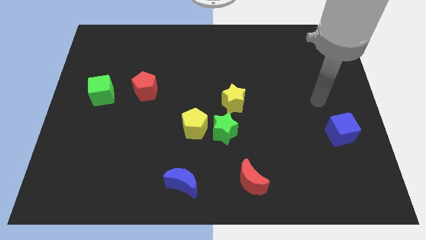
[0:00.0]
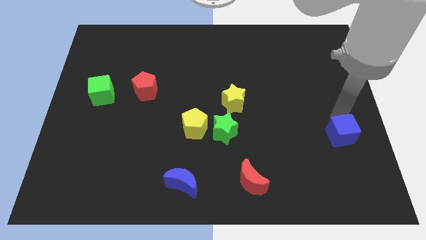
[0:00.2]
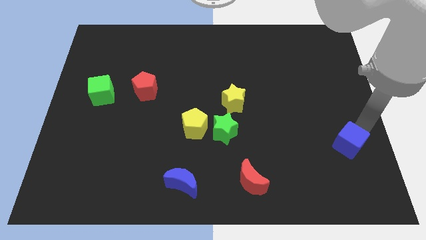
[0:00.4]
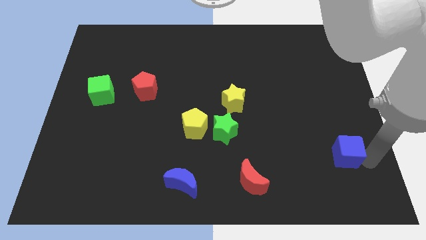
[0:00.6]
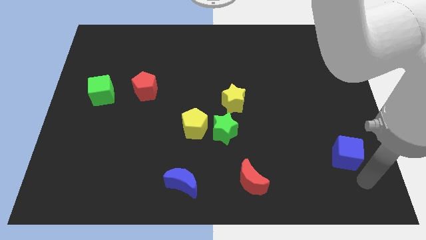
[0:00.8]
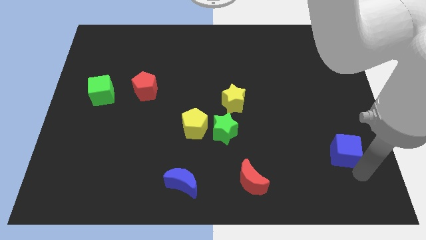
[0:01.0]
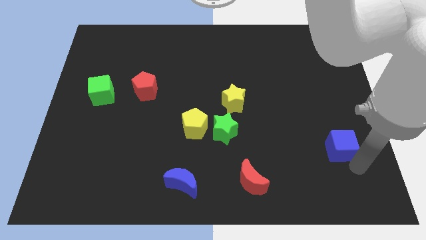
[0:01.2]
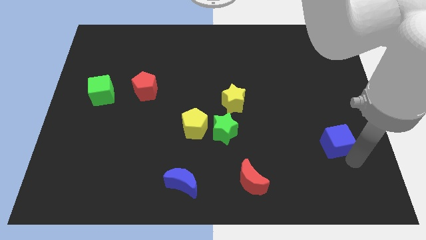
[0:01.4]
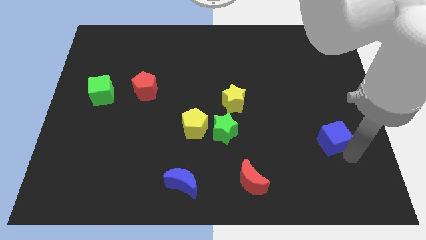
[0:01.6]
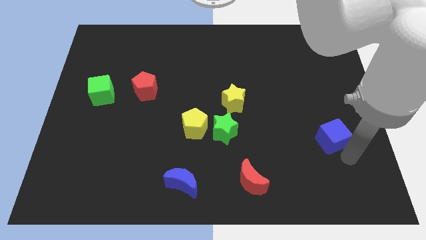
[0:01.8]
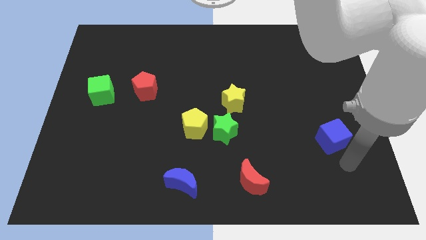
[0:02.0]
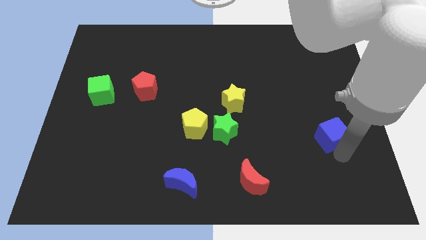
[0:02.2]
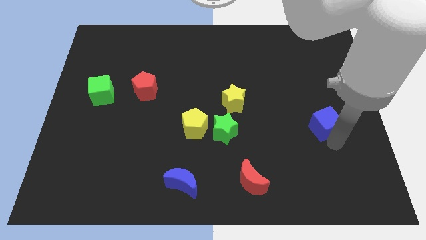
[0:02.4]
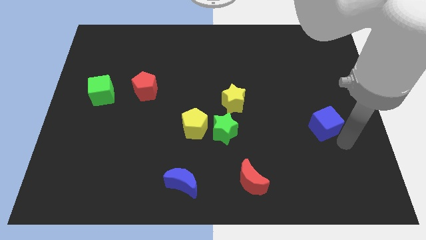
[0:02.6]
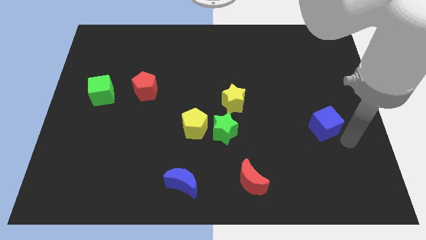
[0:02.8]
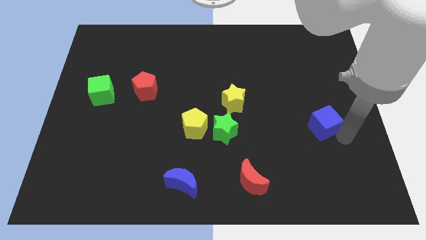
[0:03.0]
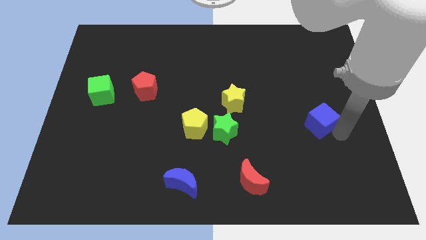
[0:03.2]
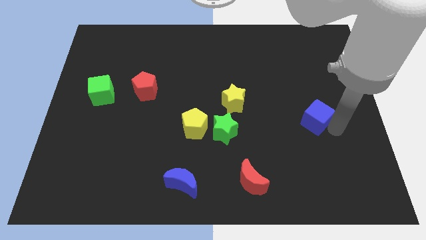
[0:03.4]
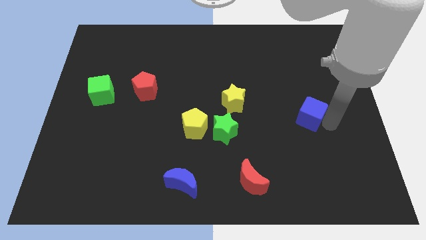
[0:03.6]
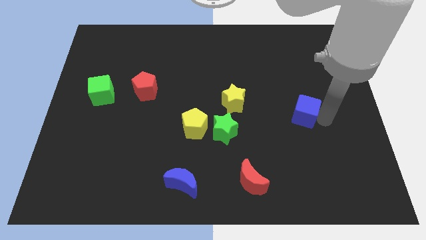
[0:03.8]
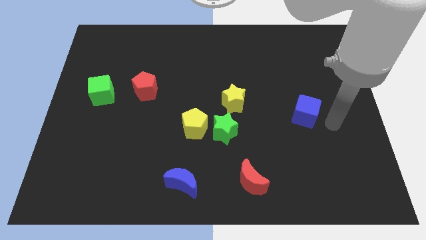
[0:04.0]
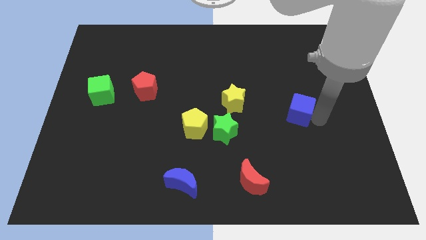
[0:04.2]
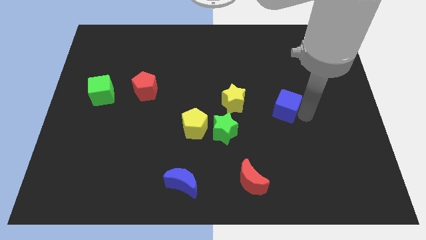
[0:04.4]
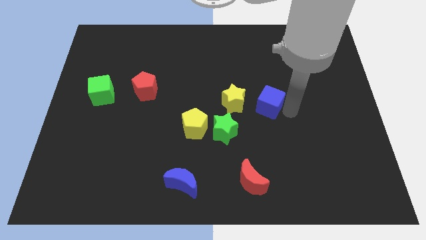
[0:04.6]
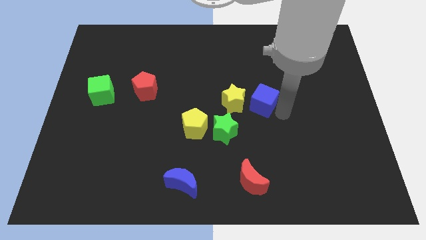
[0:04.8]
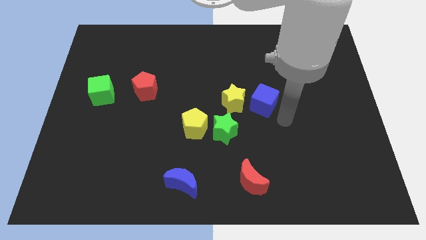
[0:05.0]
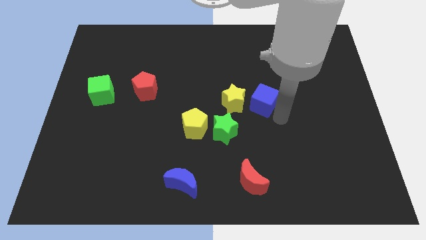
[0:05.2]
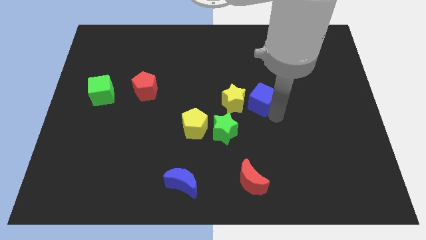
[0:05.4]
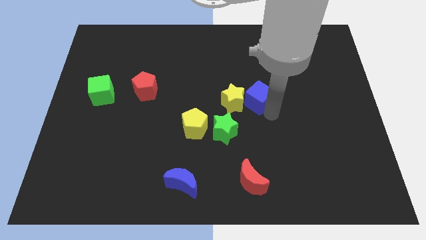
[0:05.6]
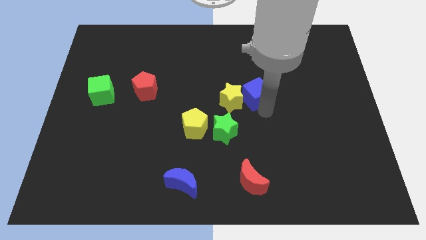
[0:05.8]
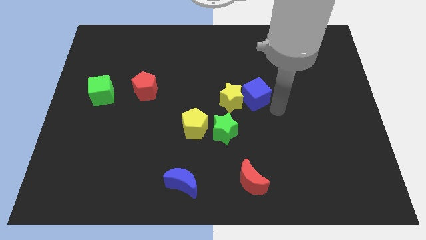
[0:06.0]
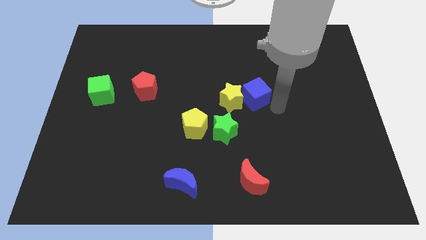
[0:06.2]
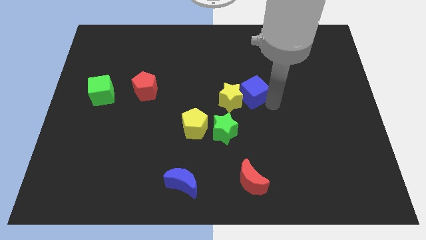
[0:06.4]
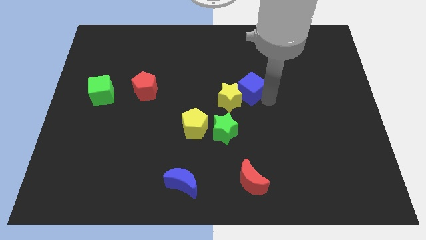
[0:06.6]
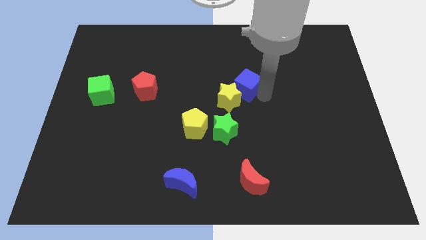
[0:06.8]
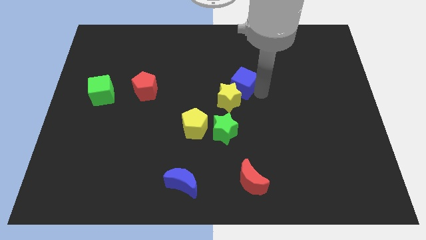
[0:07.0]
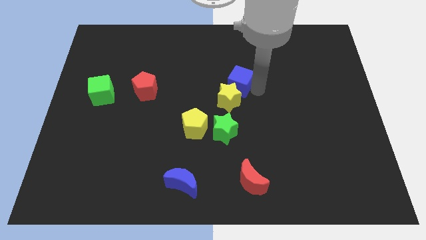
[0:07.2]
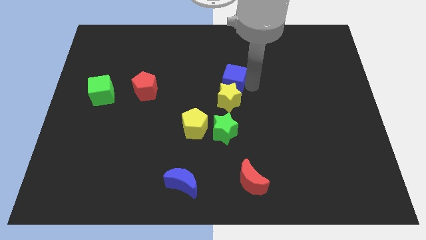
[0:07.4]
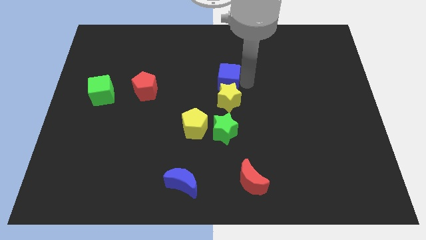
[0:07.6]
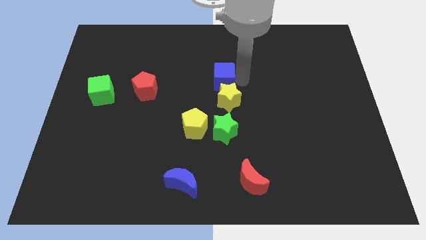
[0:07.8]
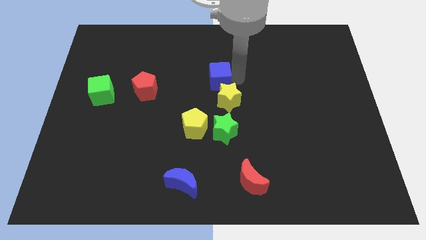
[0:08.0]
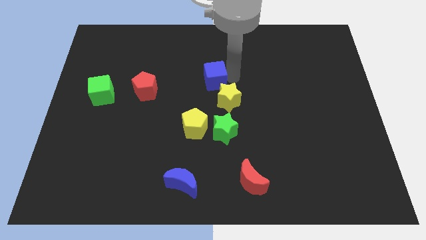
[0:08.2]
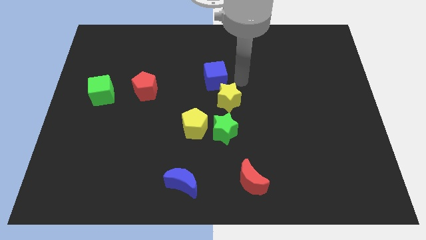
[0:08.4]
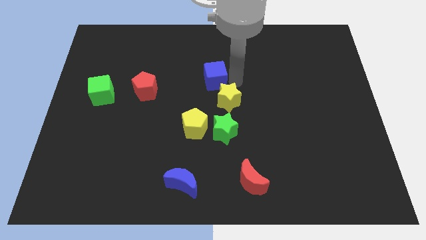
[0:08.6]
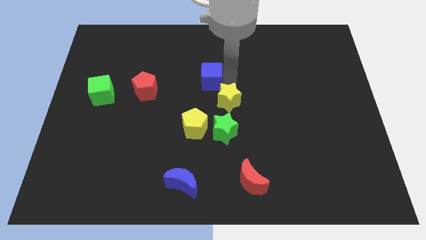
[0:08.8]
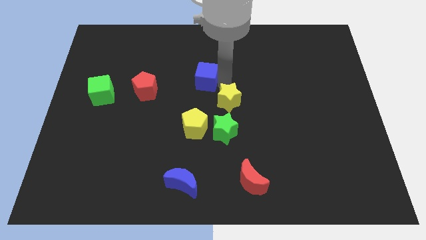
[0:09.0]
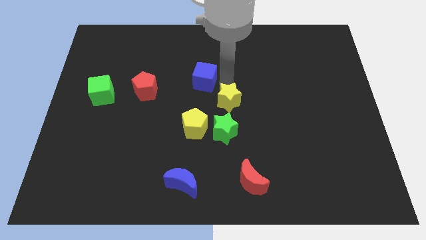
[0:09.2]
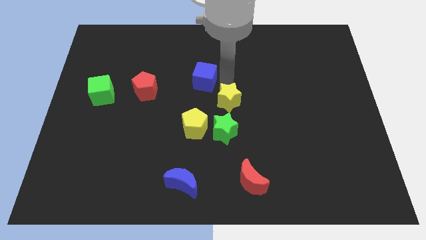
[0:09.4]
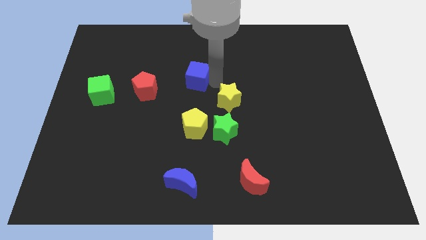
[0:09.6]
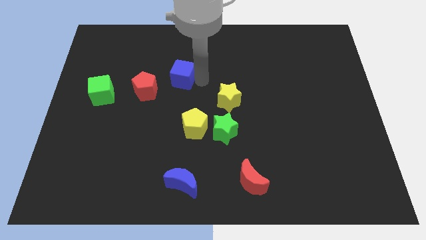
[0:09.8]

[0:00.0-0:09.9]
push the blue cube diagonally up and to the right of the red pentagon

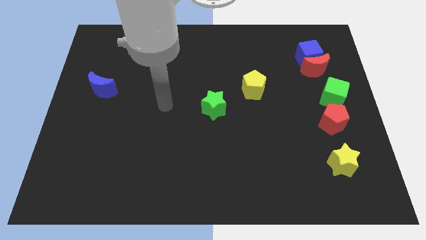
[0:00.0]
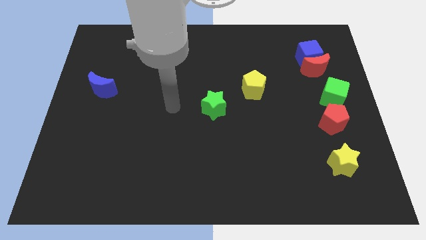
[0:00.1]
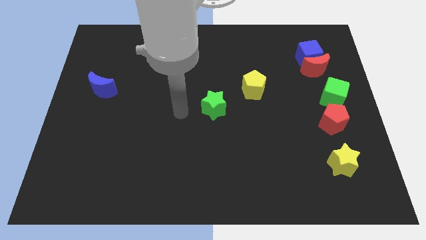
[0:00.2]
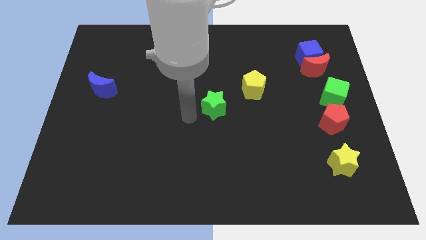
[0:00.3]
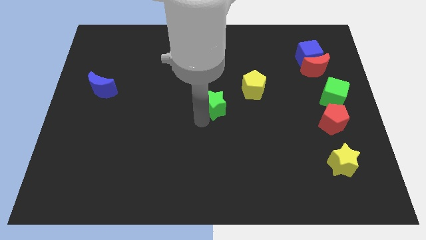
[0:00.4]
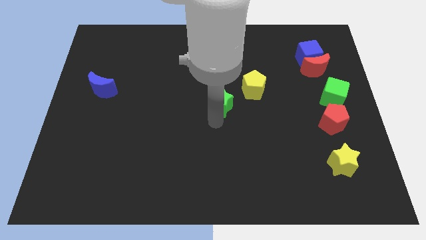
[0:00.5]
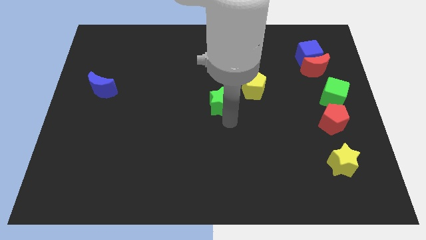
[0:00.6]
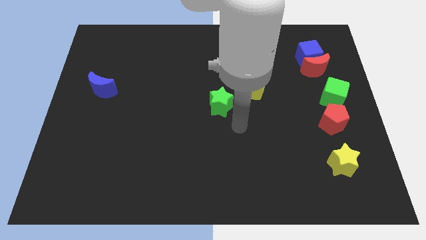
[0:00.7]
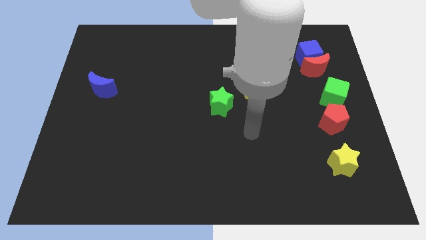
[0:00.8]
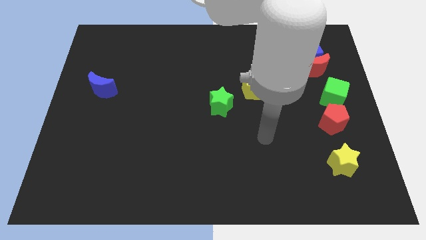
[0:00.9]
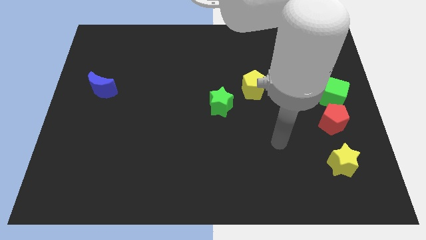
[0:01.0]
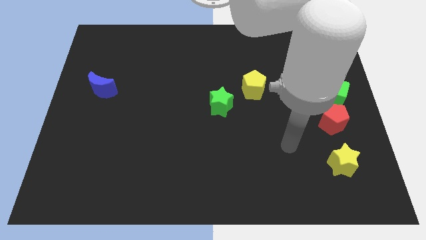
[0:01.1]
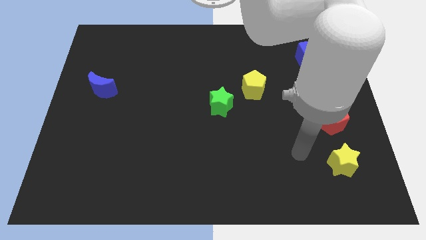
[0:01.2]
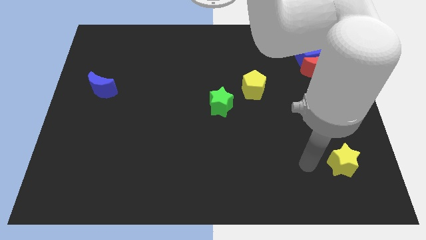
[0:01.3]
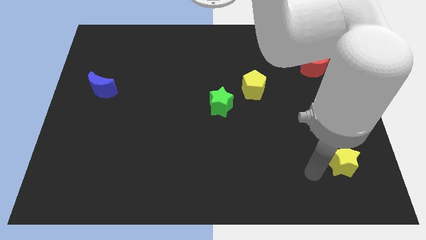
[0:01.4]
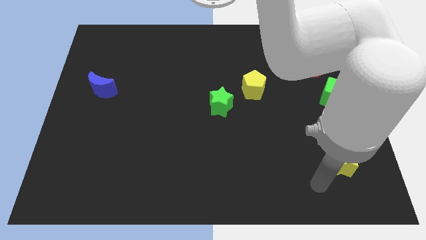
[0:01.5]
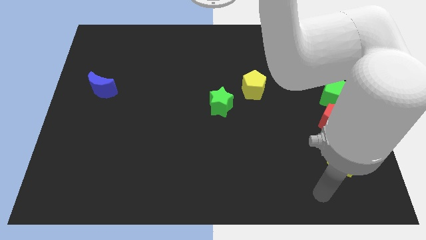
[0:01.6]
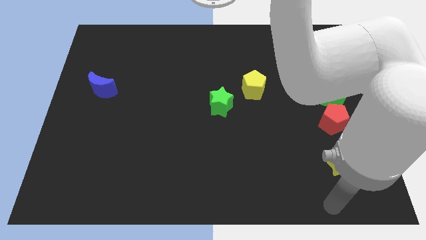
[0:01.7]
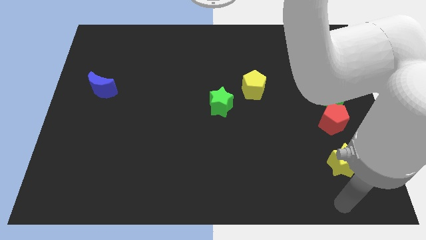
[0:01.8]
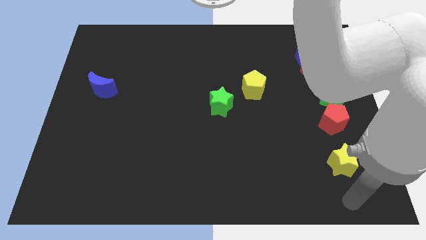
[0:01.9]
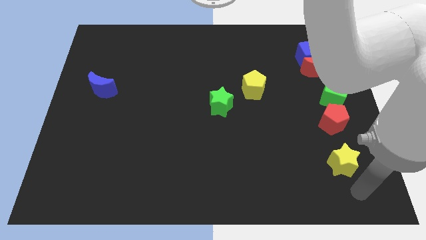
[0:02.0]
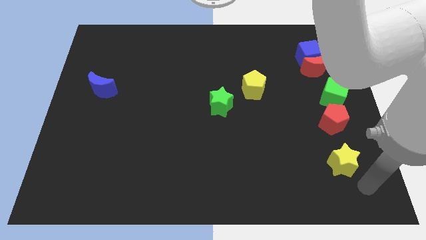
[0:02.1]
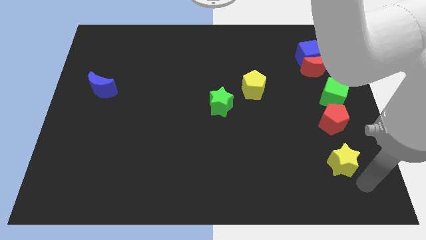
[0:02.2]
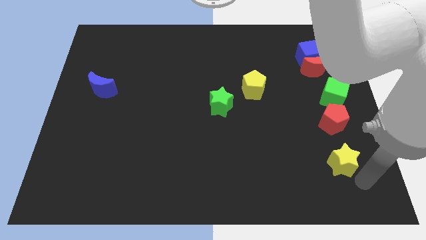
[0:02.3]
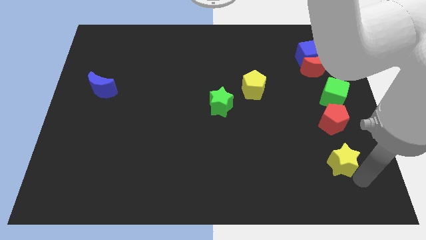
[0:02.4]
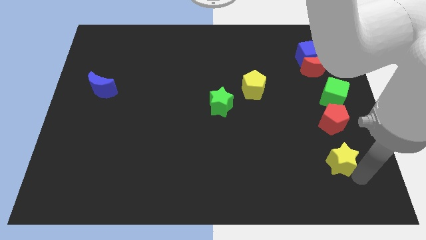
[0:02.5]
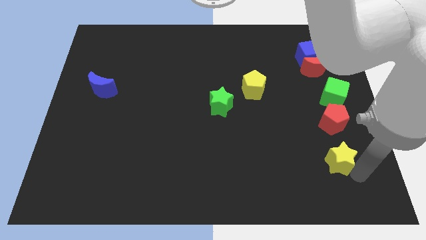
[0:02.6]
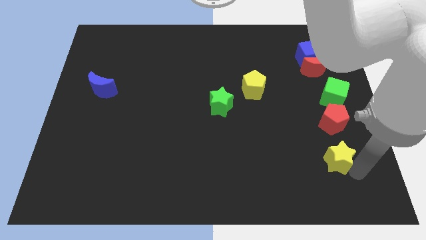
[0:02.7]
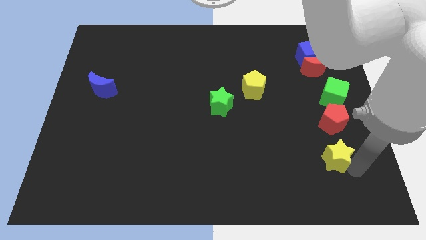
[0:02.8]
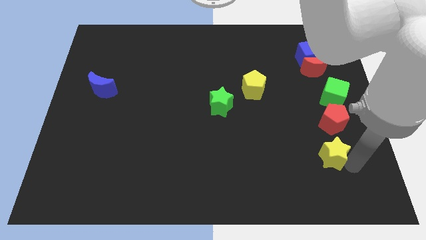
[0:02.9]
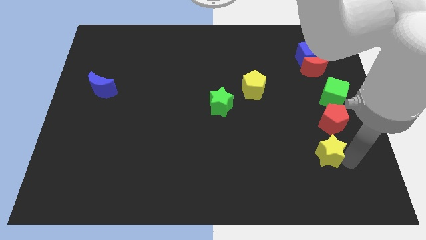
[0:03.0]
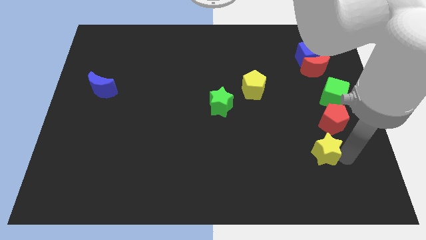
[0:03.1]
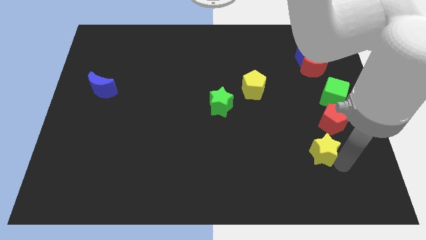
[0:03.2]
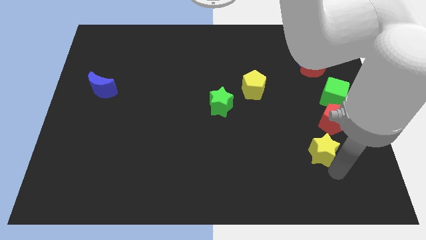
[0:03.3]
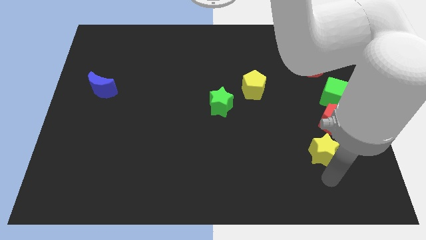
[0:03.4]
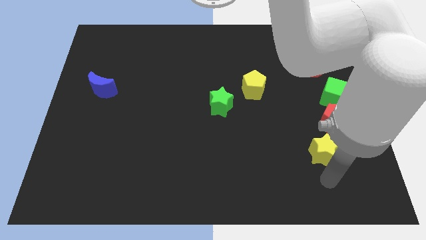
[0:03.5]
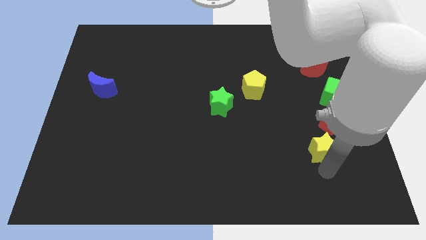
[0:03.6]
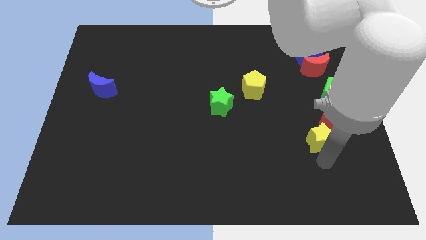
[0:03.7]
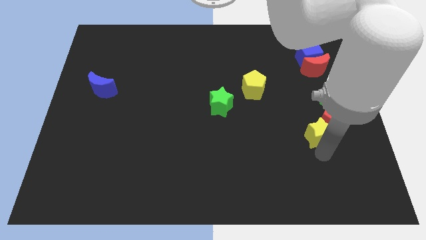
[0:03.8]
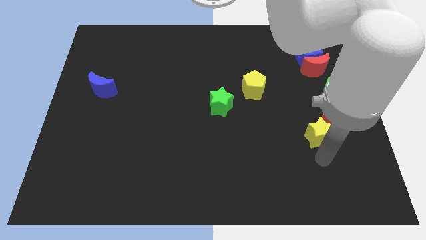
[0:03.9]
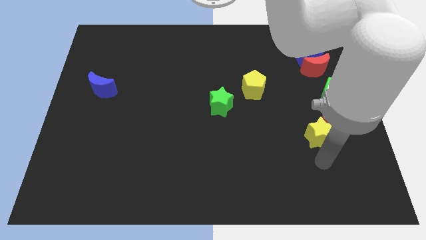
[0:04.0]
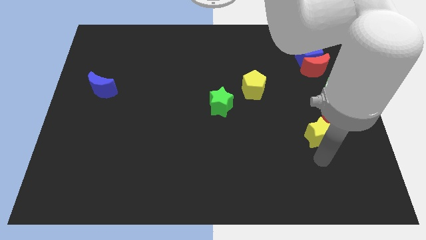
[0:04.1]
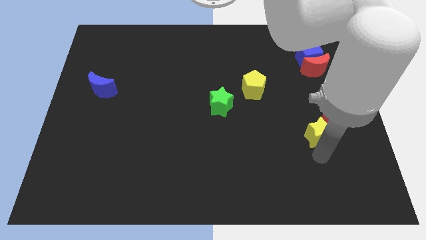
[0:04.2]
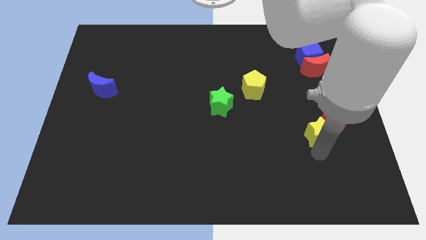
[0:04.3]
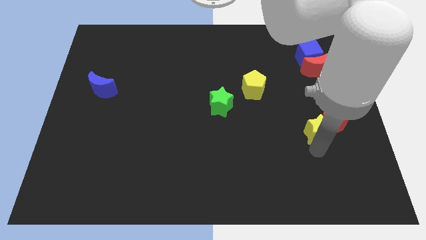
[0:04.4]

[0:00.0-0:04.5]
move the yellow star to the bottom left of the green cube
